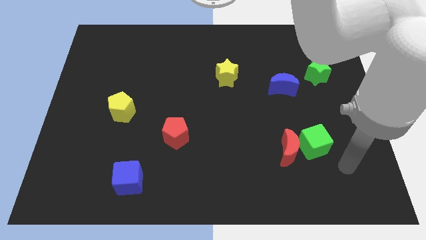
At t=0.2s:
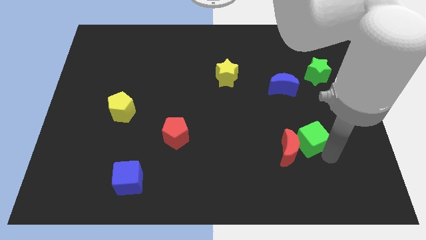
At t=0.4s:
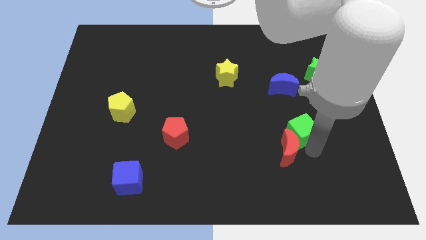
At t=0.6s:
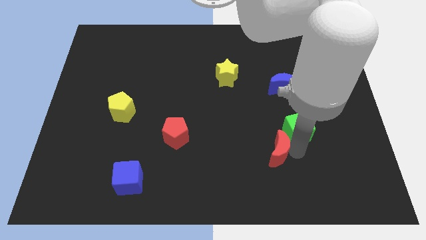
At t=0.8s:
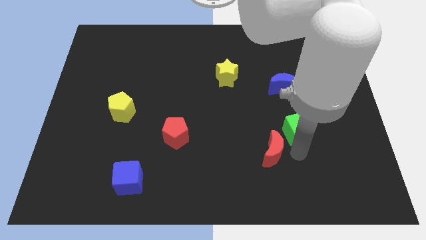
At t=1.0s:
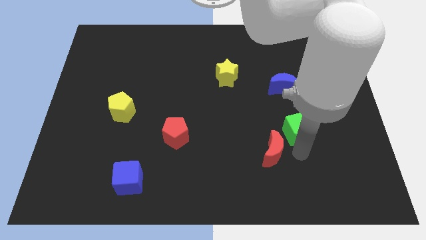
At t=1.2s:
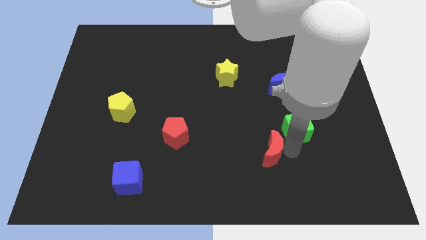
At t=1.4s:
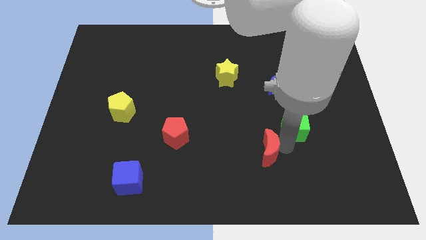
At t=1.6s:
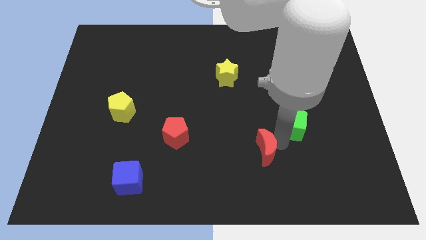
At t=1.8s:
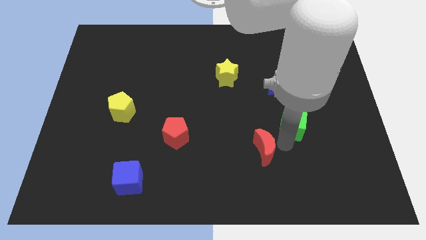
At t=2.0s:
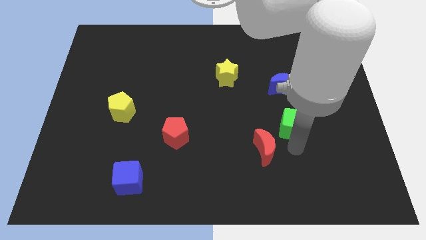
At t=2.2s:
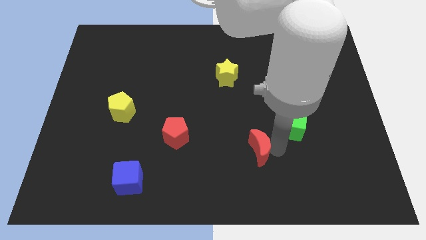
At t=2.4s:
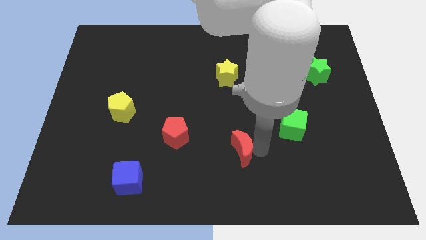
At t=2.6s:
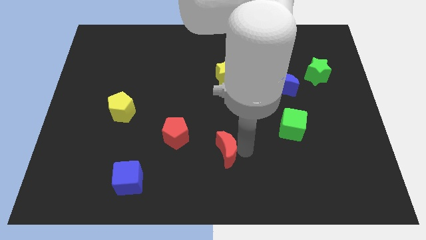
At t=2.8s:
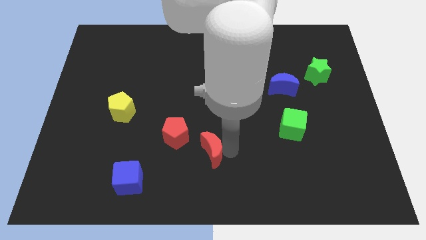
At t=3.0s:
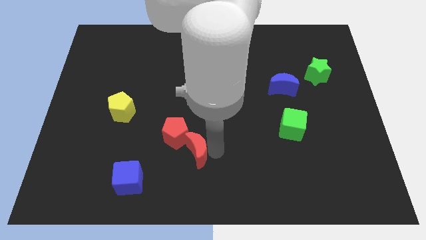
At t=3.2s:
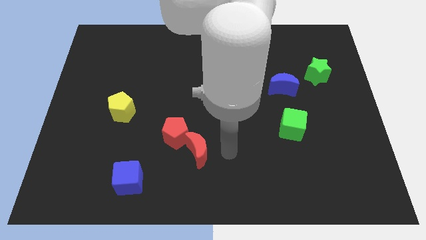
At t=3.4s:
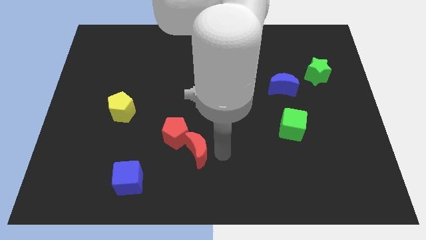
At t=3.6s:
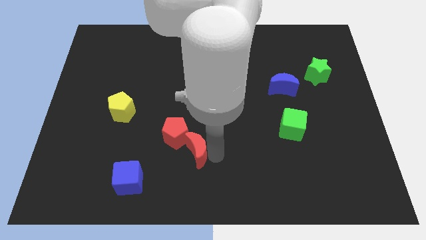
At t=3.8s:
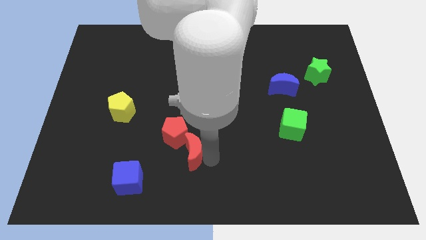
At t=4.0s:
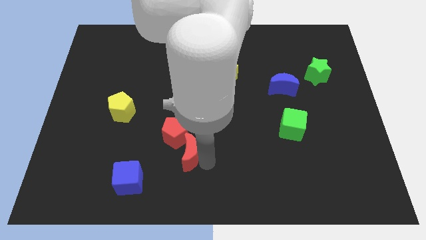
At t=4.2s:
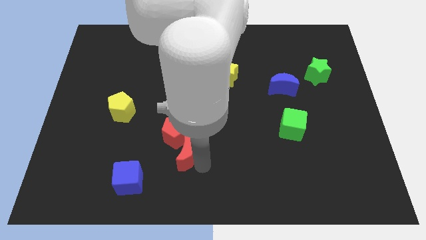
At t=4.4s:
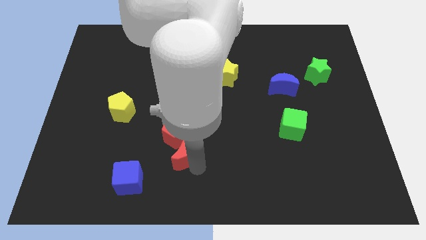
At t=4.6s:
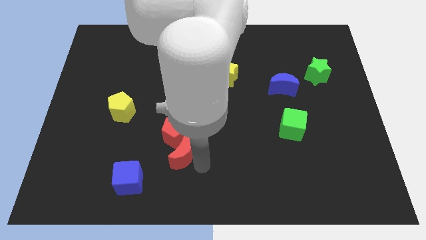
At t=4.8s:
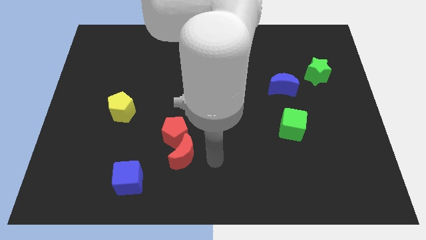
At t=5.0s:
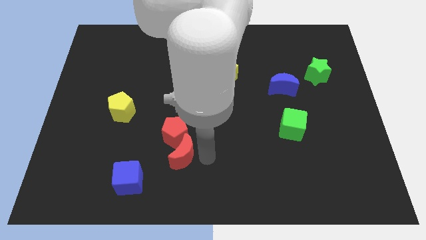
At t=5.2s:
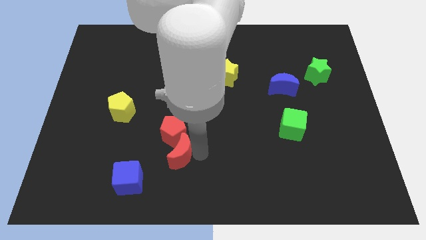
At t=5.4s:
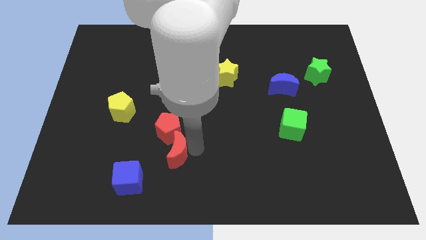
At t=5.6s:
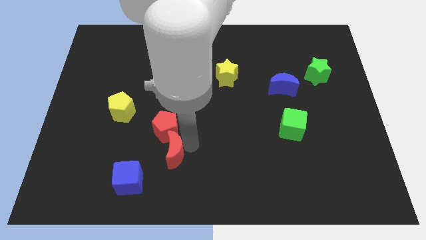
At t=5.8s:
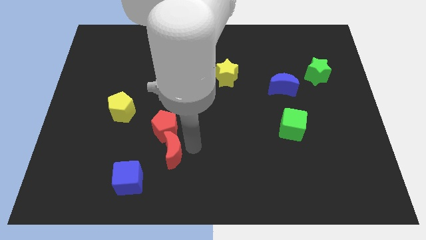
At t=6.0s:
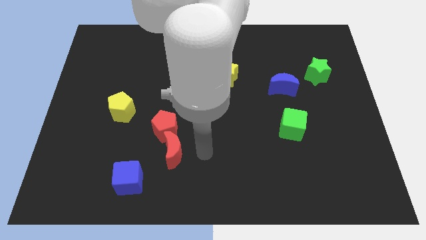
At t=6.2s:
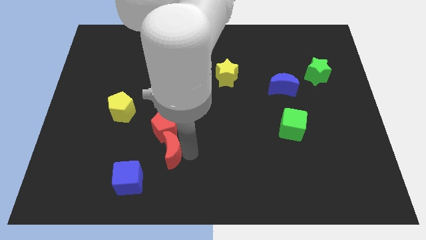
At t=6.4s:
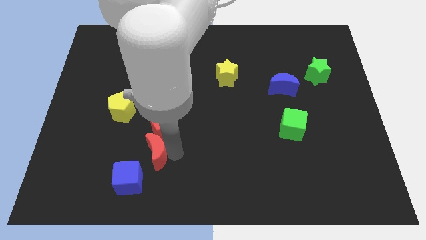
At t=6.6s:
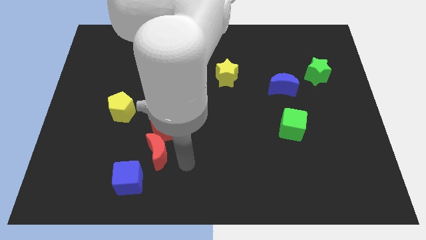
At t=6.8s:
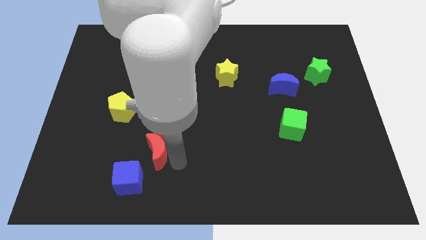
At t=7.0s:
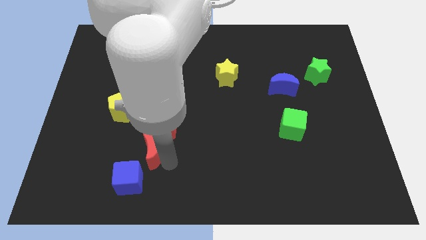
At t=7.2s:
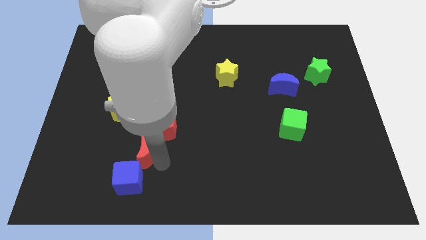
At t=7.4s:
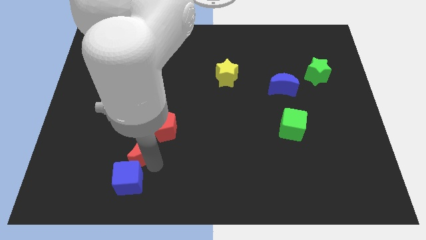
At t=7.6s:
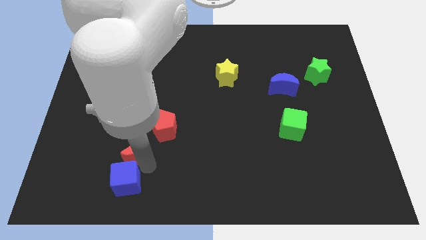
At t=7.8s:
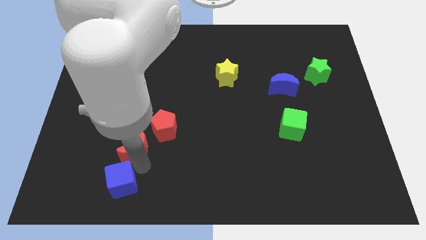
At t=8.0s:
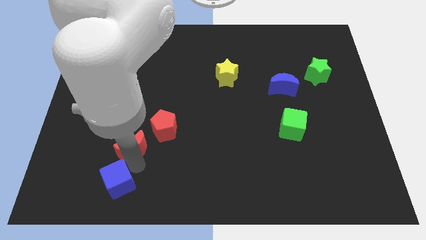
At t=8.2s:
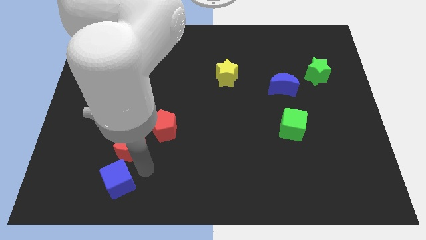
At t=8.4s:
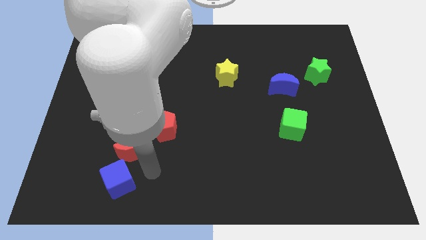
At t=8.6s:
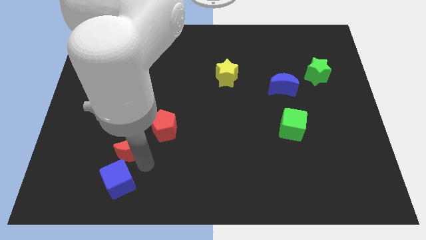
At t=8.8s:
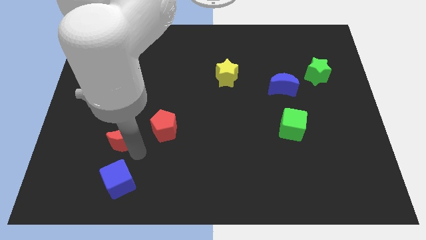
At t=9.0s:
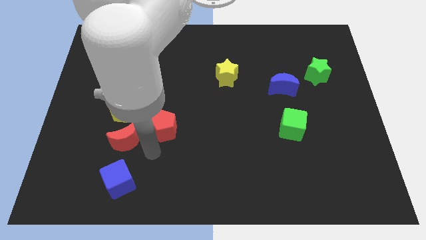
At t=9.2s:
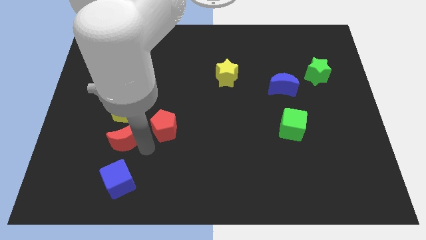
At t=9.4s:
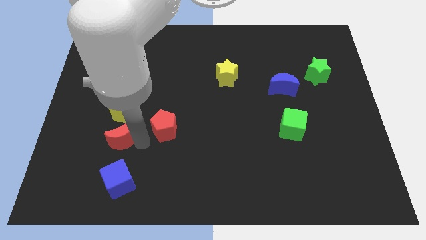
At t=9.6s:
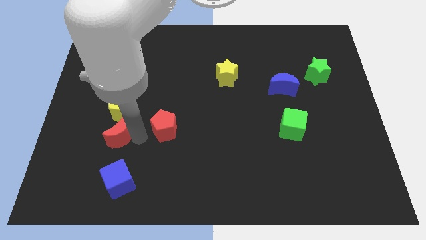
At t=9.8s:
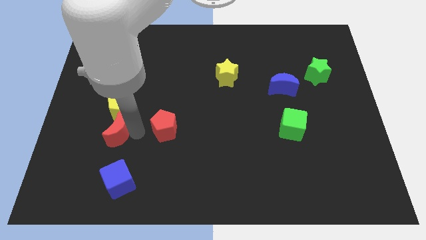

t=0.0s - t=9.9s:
slide the red moon to the bottom left side of the yellow pentagon

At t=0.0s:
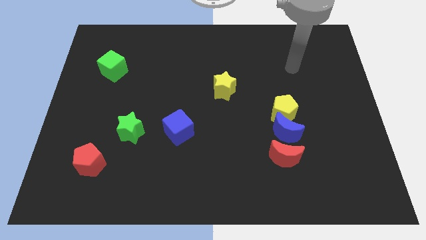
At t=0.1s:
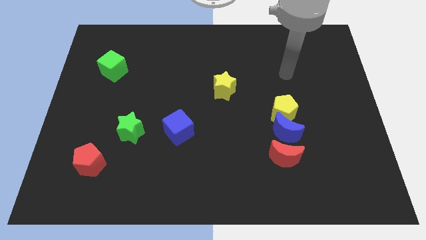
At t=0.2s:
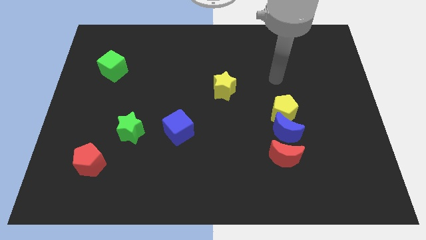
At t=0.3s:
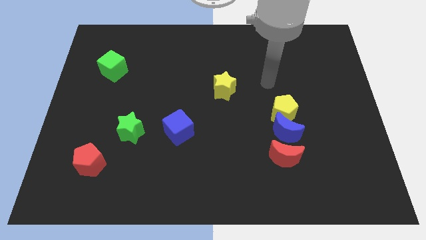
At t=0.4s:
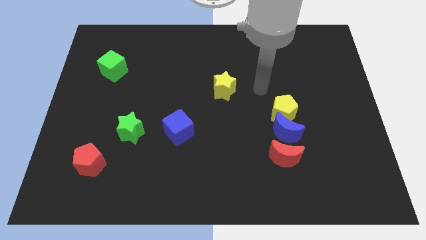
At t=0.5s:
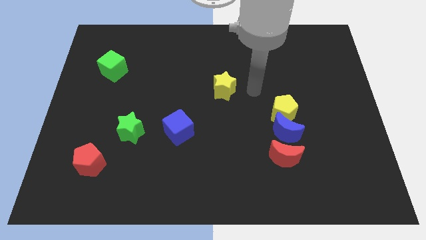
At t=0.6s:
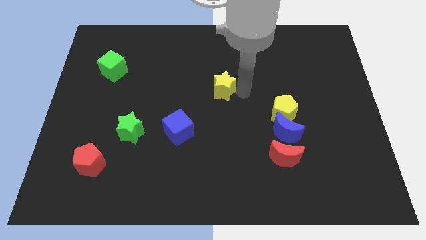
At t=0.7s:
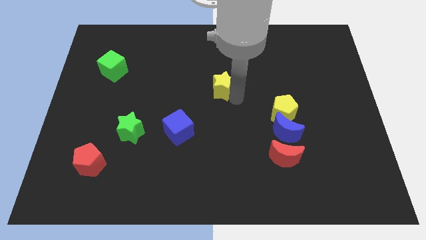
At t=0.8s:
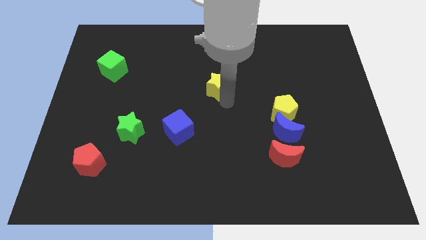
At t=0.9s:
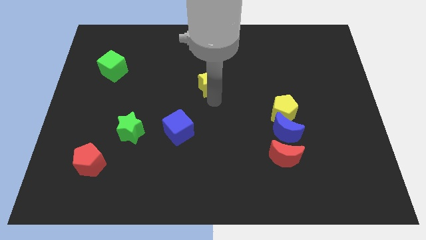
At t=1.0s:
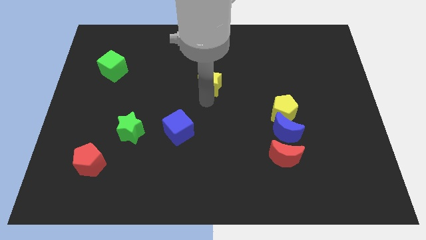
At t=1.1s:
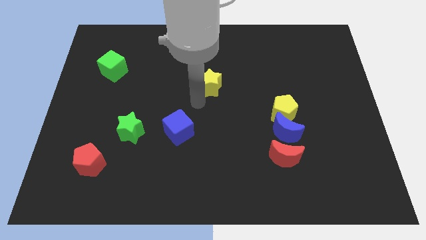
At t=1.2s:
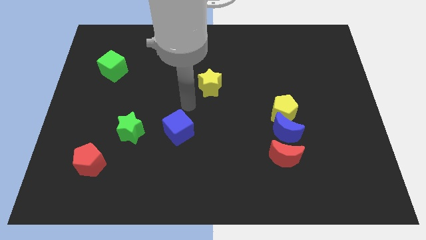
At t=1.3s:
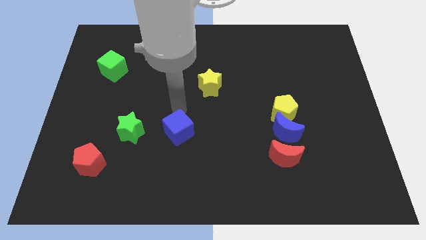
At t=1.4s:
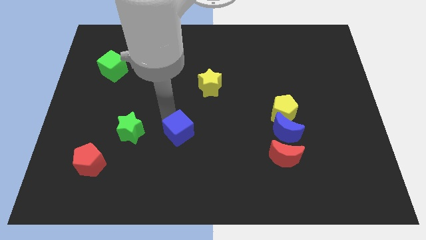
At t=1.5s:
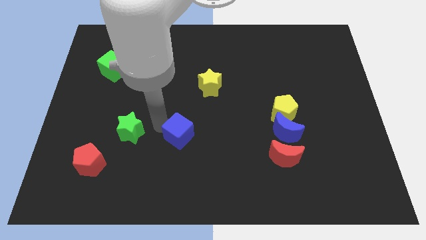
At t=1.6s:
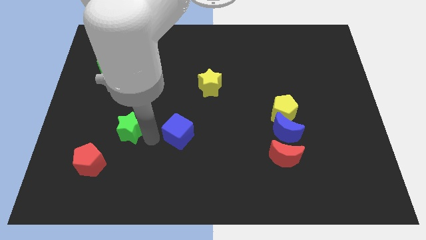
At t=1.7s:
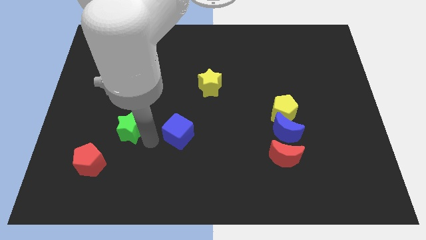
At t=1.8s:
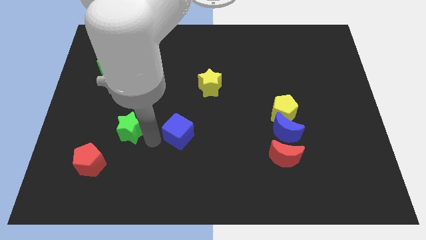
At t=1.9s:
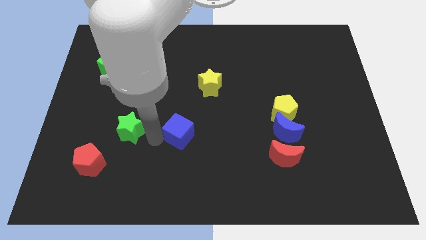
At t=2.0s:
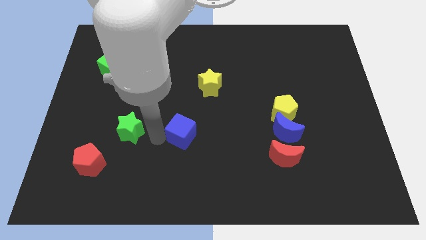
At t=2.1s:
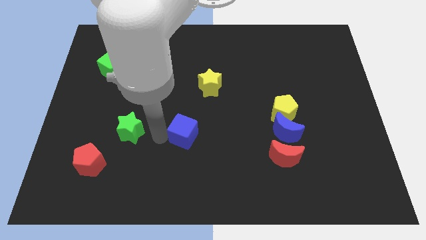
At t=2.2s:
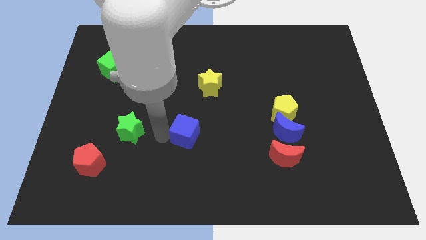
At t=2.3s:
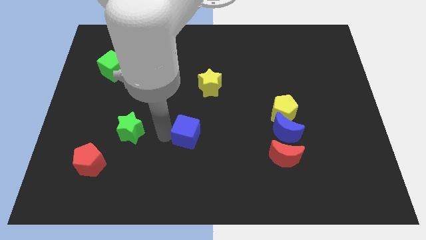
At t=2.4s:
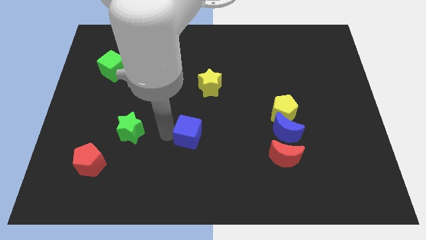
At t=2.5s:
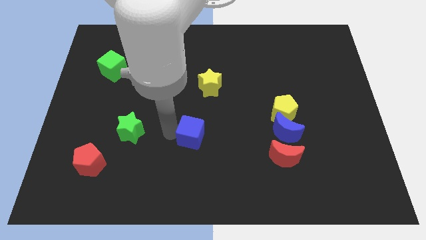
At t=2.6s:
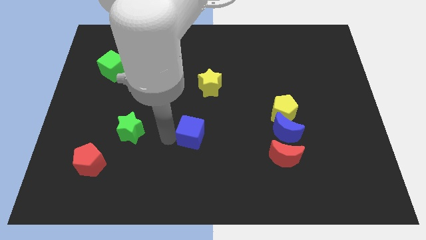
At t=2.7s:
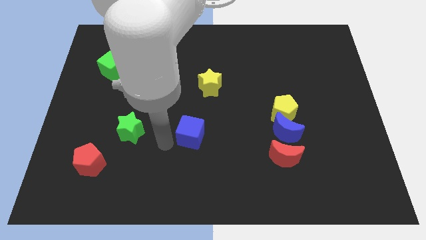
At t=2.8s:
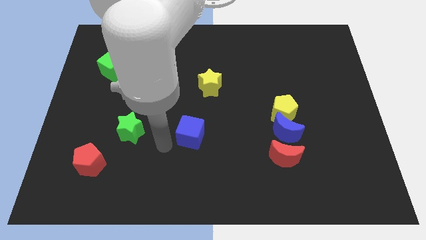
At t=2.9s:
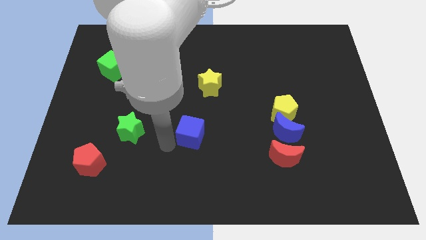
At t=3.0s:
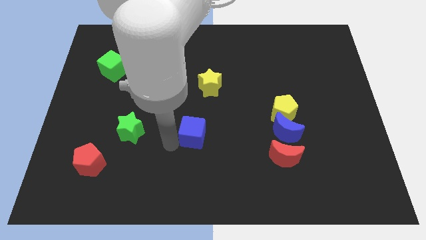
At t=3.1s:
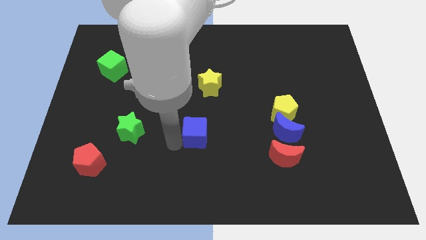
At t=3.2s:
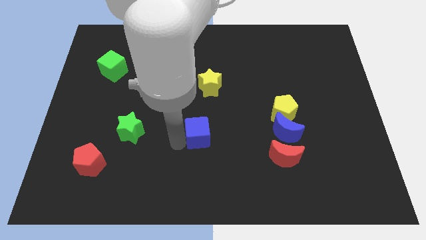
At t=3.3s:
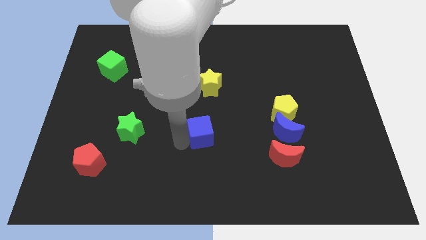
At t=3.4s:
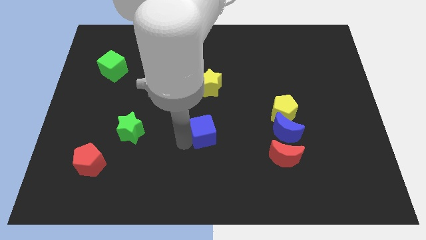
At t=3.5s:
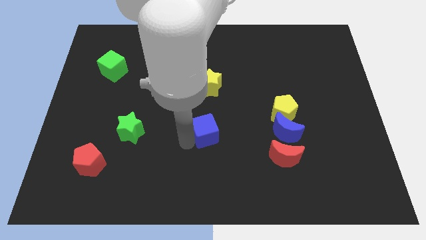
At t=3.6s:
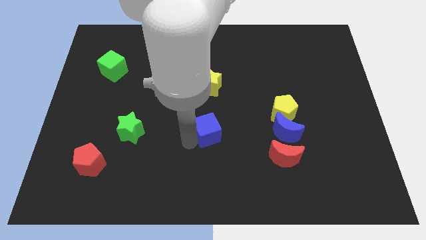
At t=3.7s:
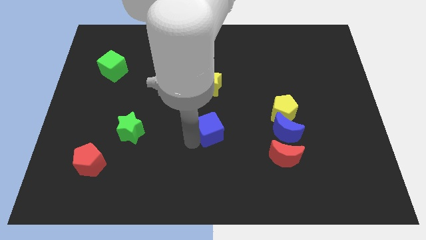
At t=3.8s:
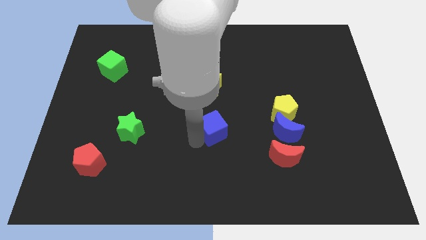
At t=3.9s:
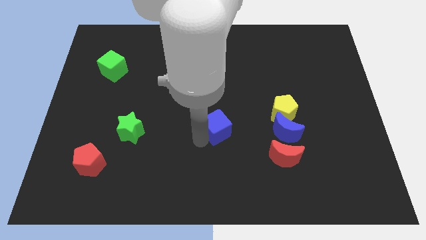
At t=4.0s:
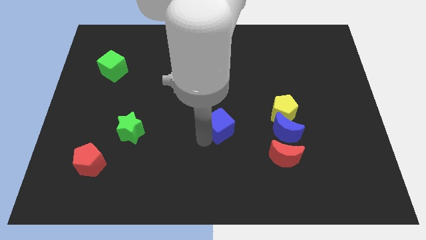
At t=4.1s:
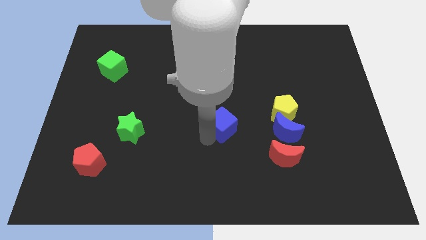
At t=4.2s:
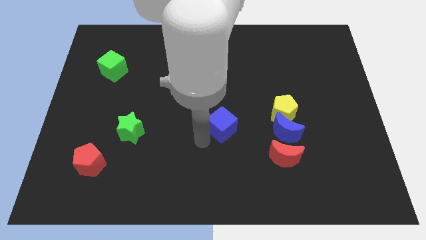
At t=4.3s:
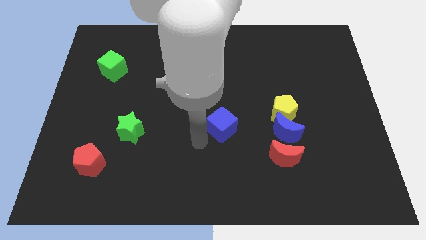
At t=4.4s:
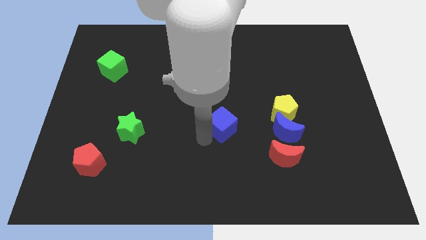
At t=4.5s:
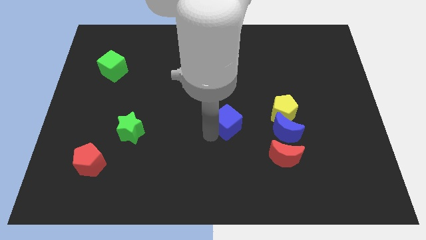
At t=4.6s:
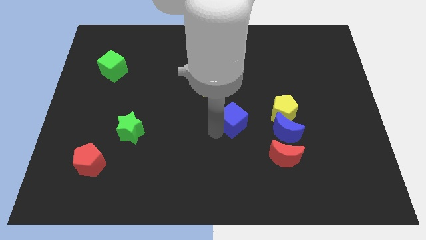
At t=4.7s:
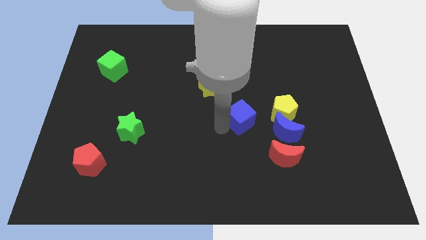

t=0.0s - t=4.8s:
put the blue cube diagonally up and to the left of the blue moon
